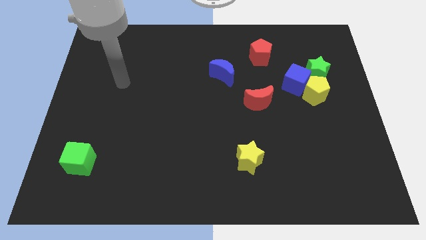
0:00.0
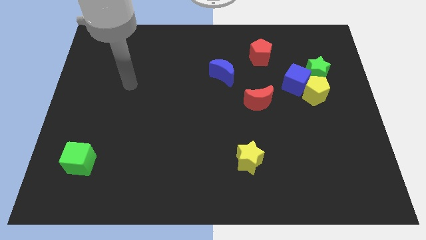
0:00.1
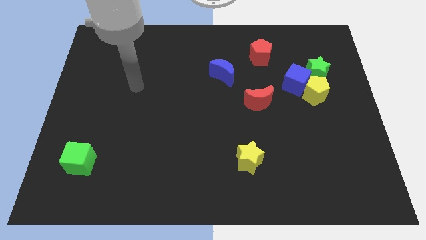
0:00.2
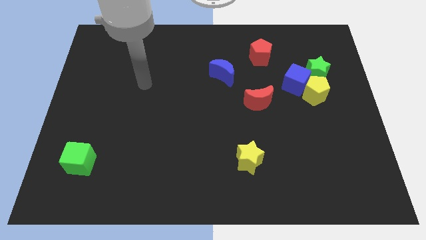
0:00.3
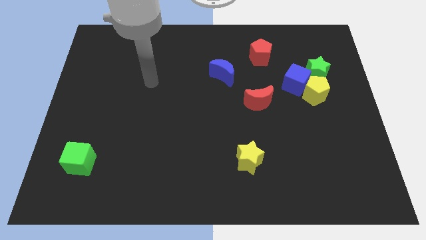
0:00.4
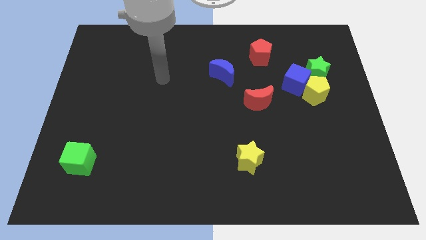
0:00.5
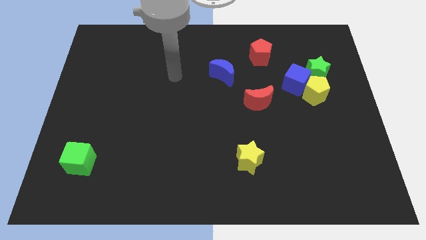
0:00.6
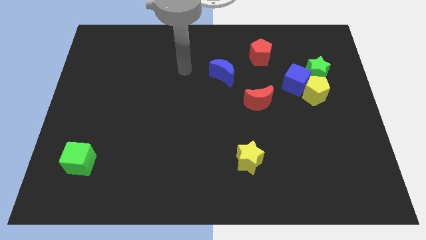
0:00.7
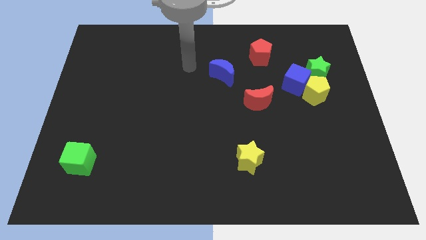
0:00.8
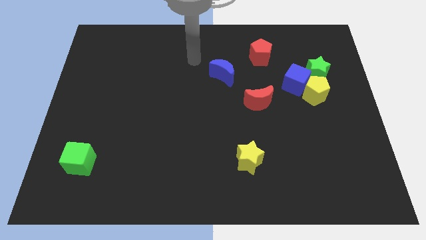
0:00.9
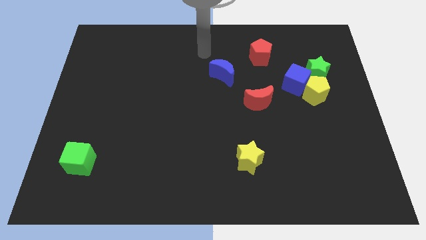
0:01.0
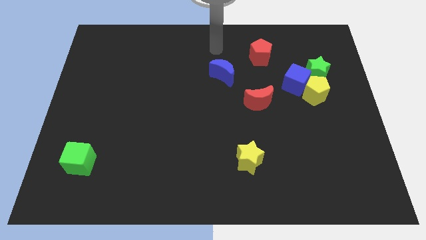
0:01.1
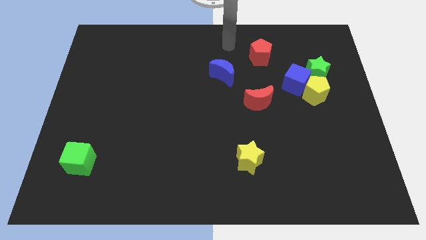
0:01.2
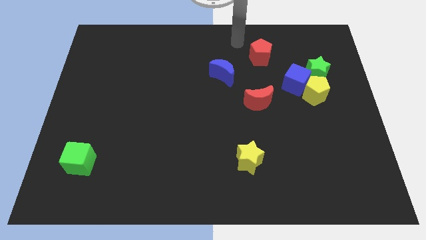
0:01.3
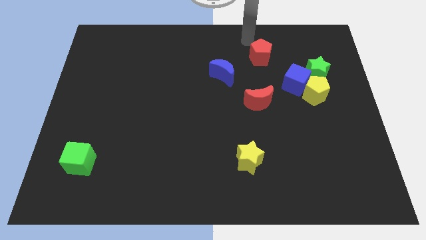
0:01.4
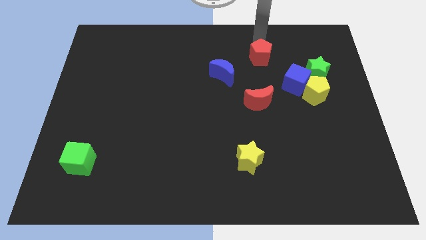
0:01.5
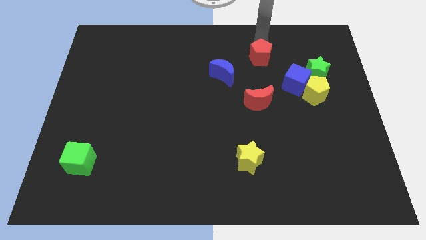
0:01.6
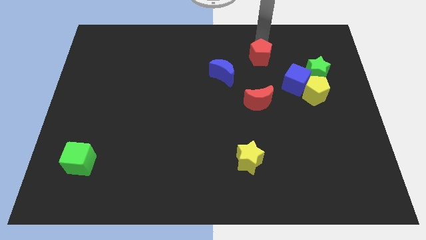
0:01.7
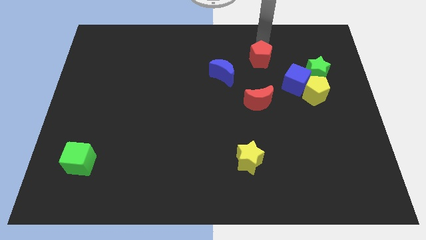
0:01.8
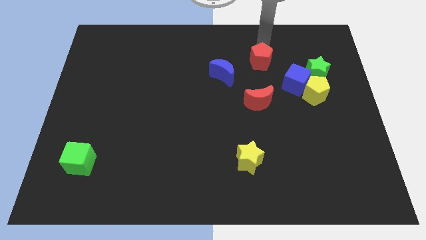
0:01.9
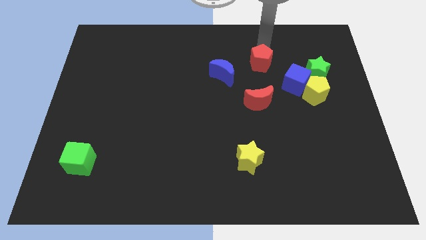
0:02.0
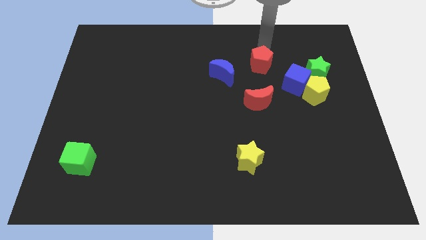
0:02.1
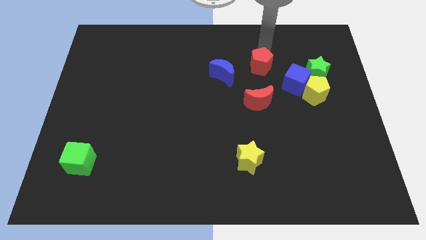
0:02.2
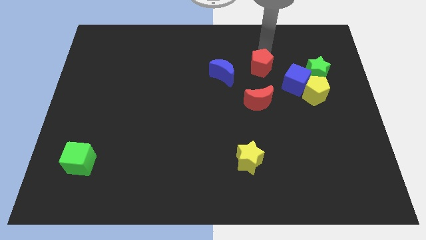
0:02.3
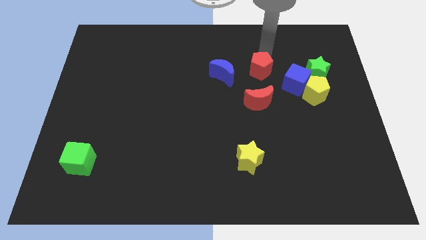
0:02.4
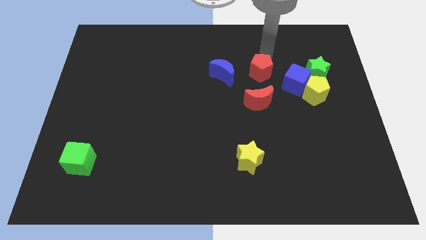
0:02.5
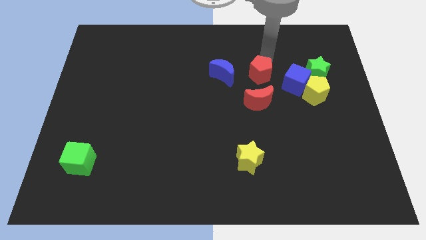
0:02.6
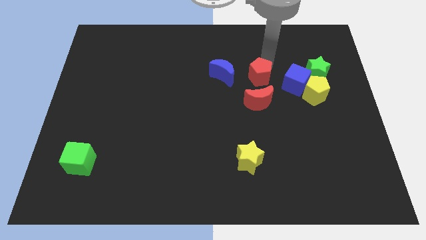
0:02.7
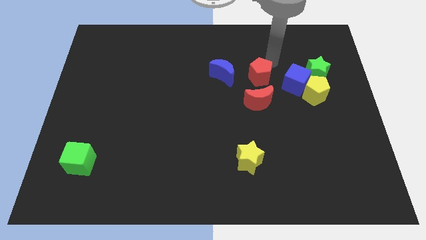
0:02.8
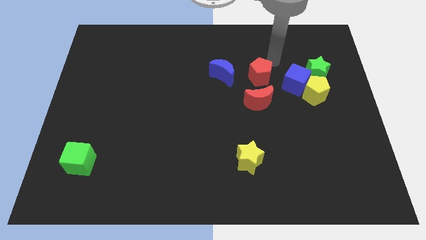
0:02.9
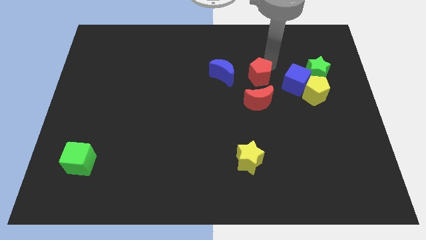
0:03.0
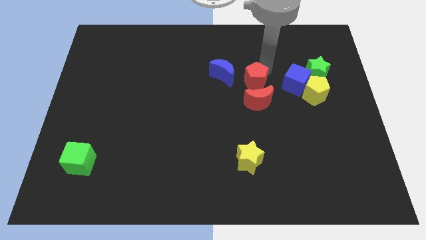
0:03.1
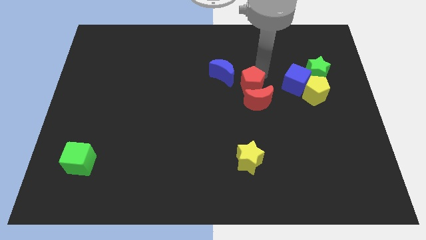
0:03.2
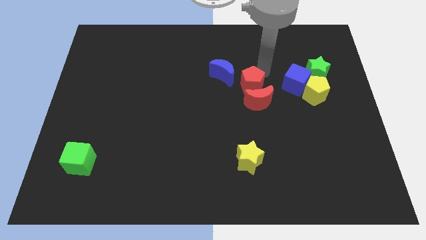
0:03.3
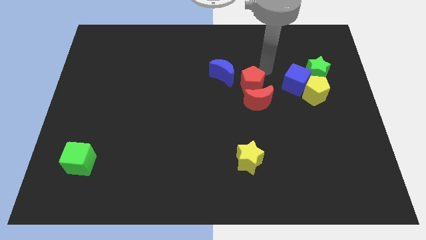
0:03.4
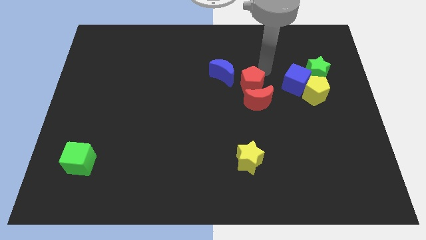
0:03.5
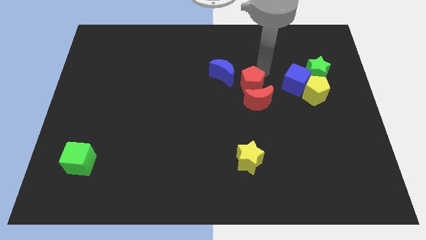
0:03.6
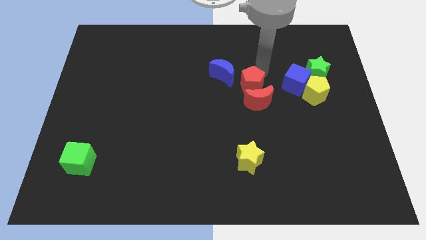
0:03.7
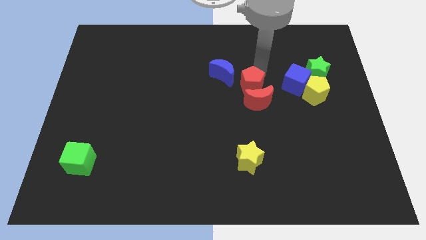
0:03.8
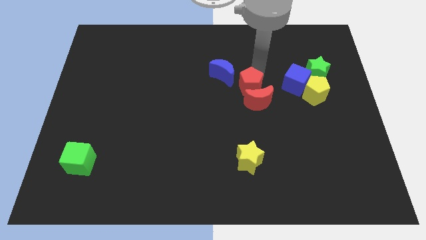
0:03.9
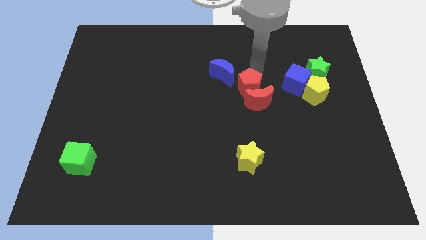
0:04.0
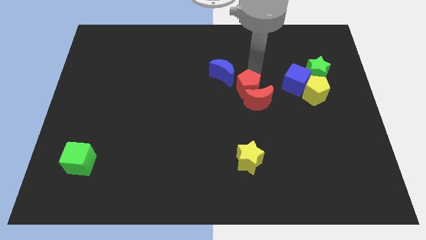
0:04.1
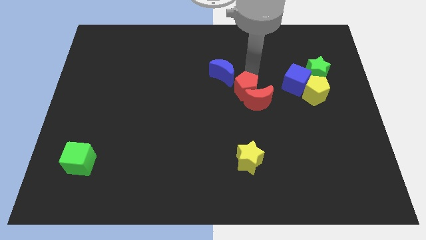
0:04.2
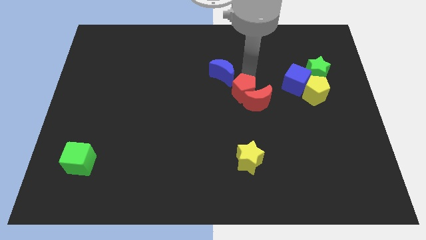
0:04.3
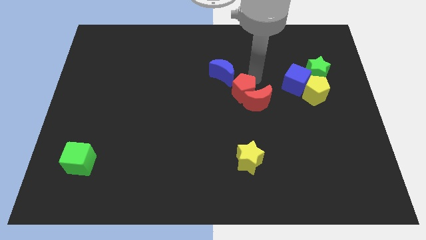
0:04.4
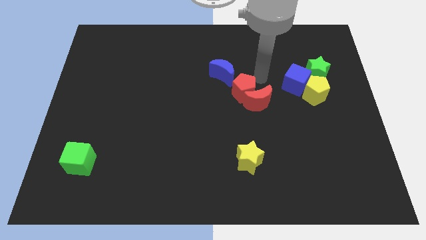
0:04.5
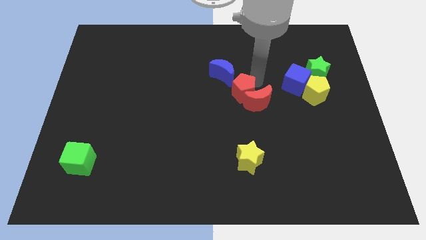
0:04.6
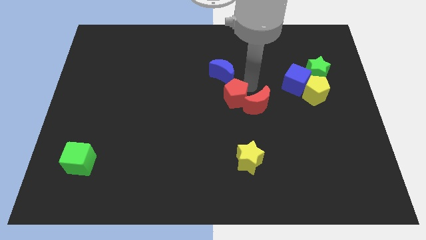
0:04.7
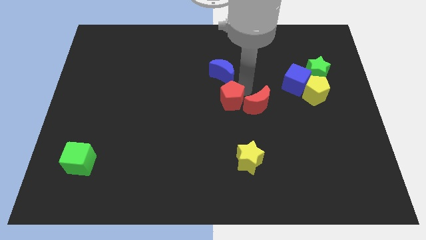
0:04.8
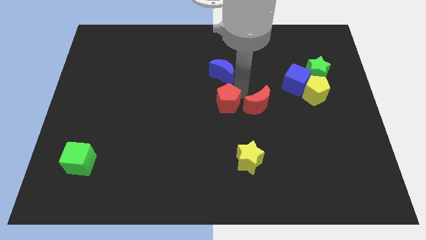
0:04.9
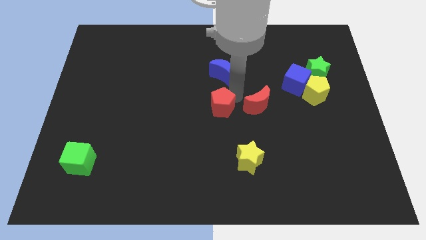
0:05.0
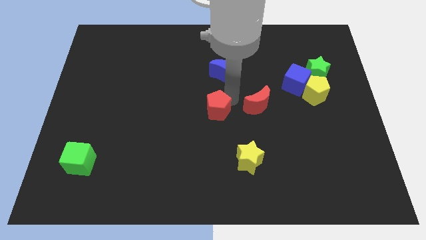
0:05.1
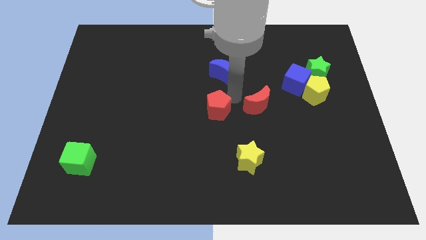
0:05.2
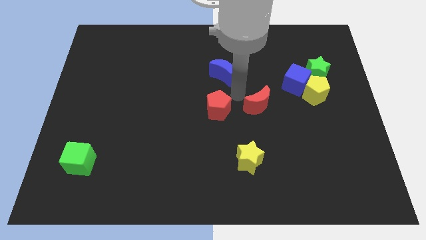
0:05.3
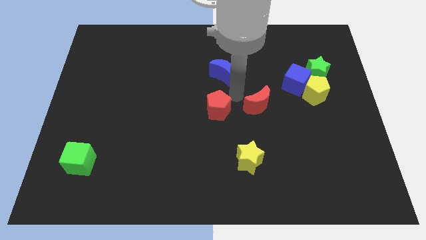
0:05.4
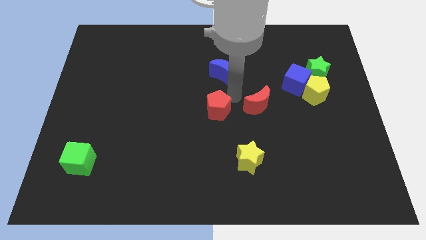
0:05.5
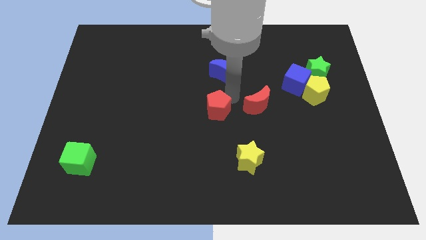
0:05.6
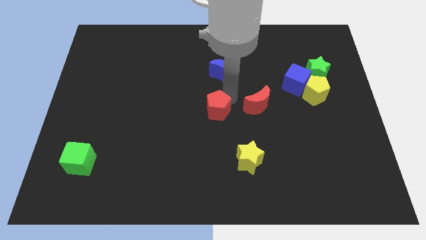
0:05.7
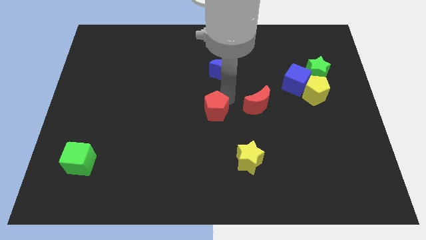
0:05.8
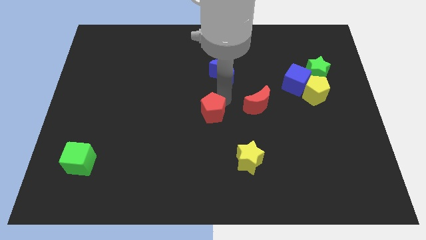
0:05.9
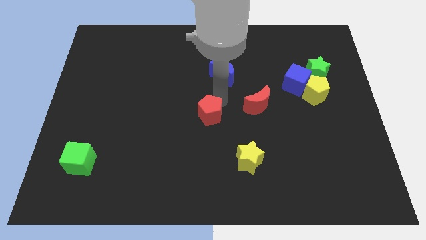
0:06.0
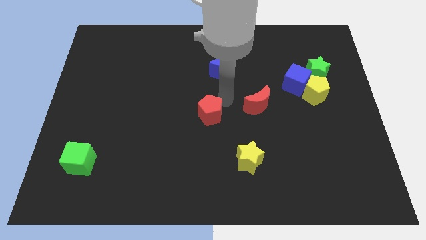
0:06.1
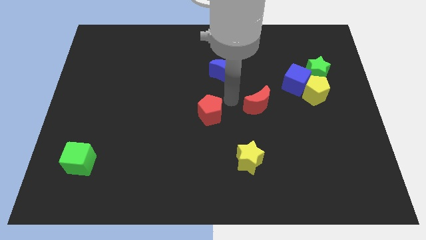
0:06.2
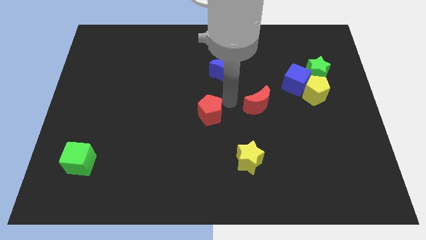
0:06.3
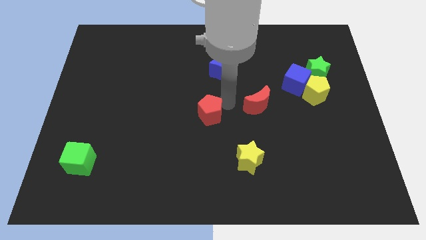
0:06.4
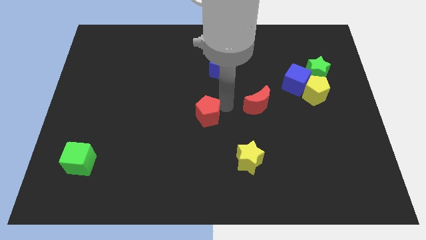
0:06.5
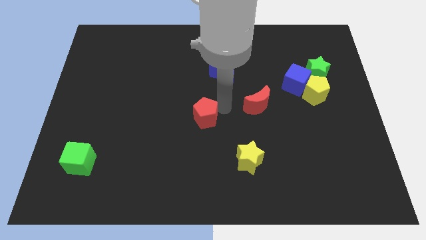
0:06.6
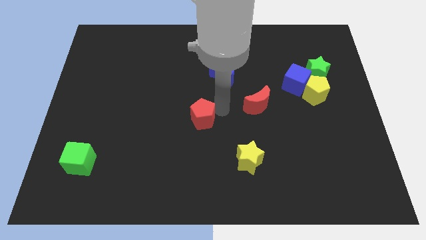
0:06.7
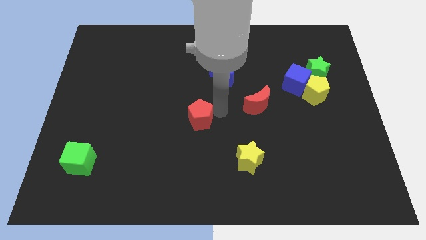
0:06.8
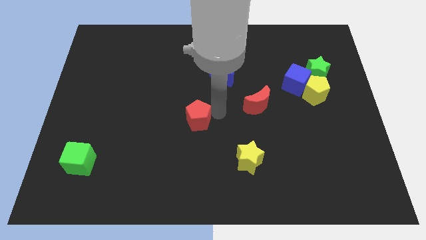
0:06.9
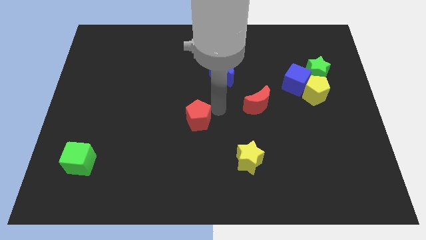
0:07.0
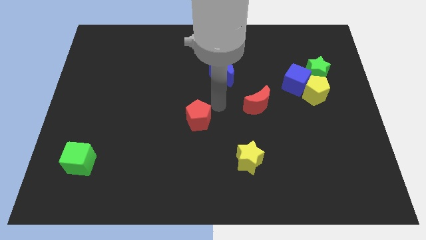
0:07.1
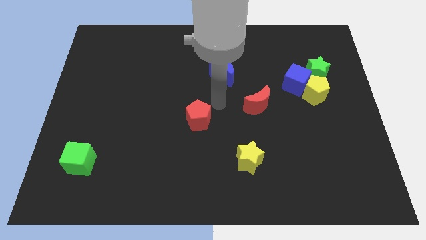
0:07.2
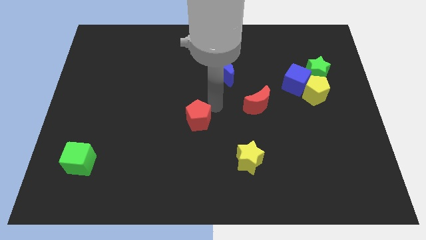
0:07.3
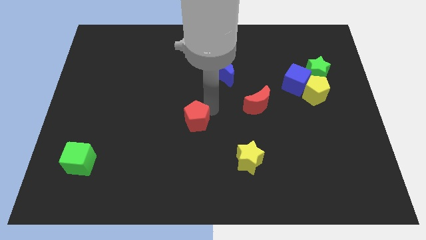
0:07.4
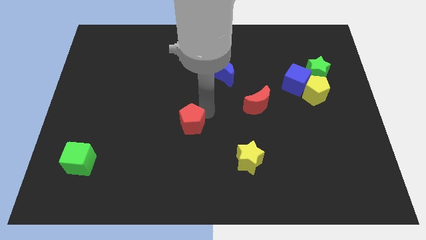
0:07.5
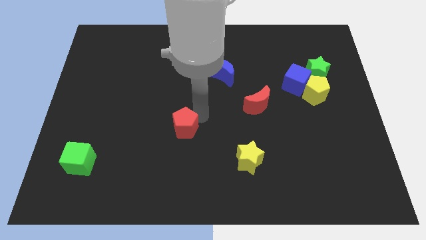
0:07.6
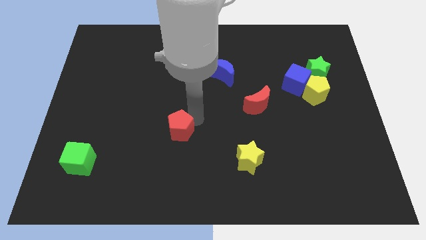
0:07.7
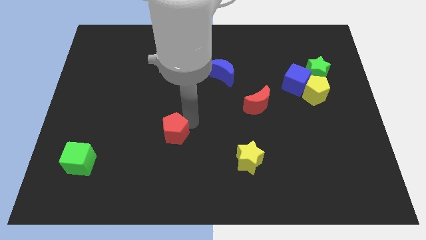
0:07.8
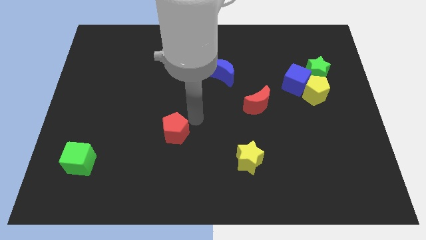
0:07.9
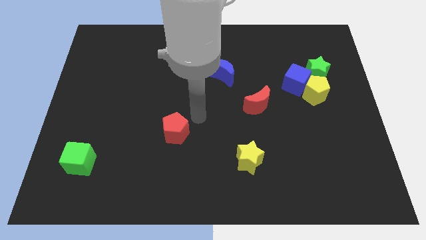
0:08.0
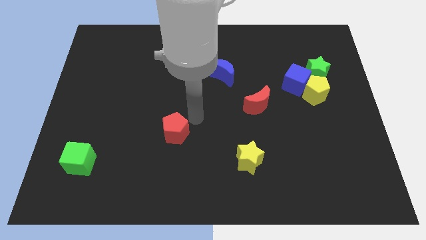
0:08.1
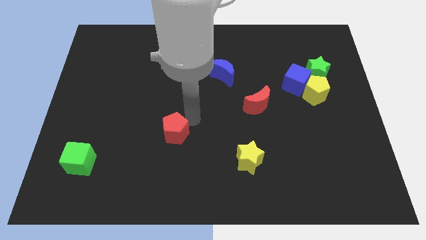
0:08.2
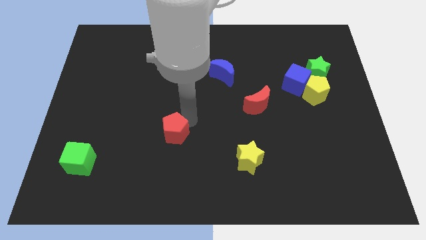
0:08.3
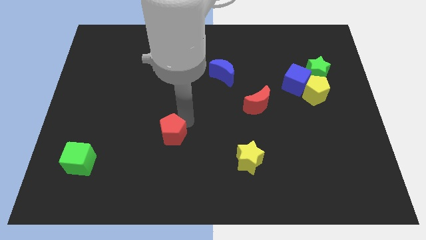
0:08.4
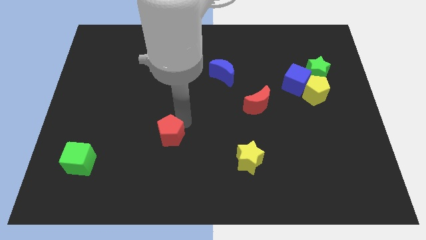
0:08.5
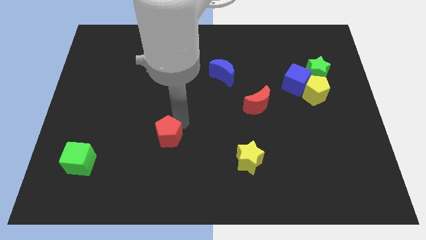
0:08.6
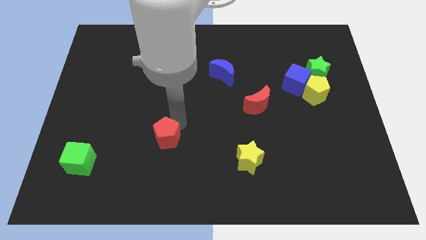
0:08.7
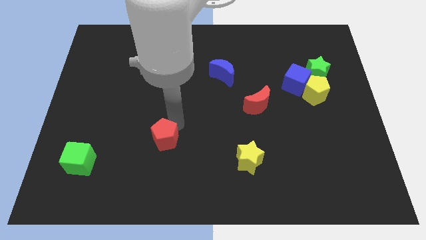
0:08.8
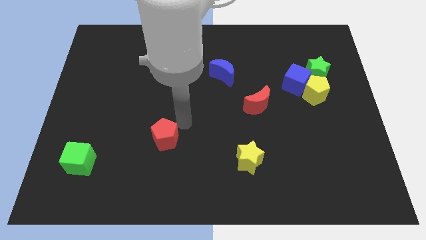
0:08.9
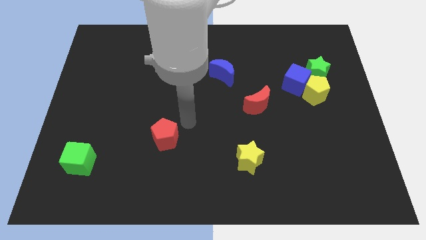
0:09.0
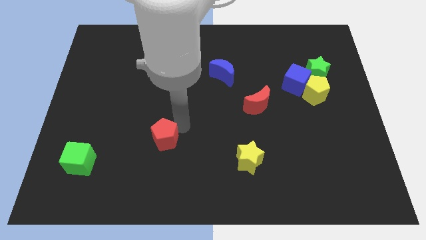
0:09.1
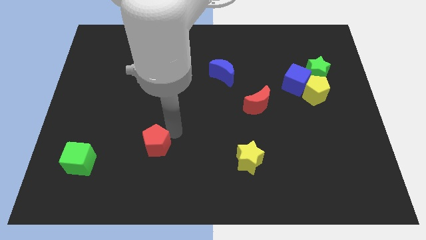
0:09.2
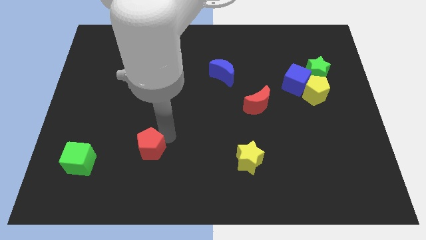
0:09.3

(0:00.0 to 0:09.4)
push the red pentagon to the right side of the green cube
